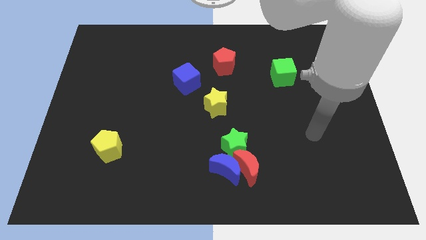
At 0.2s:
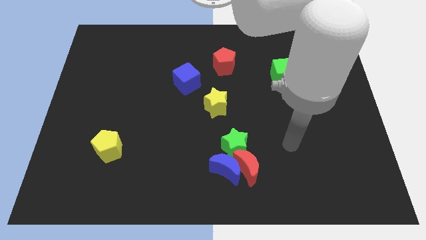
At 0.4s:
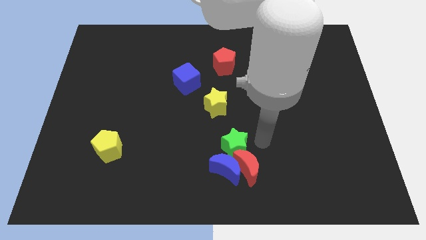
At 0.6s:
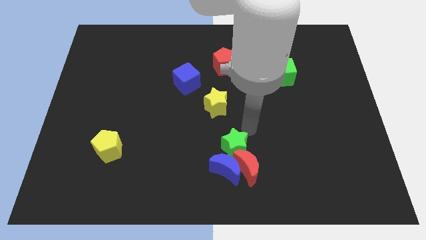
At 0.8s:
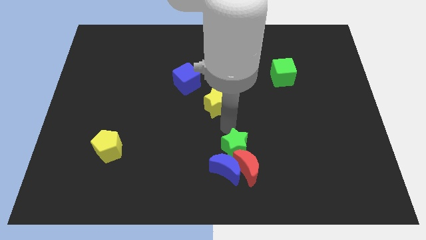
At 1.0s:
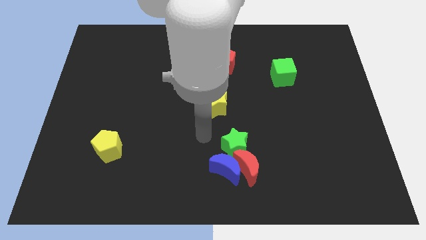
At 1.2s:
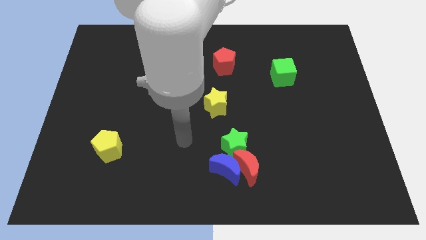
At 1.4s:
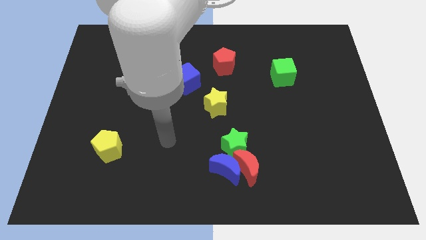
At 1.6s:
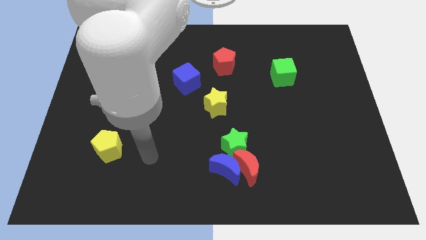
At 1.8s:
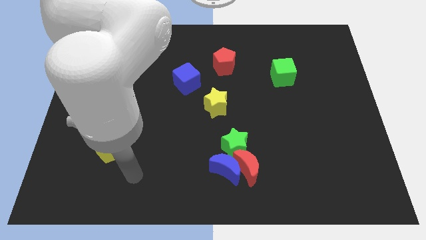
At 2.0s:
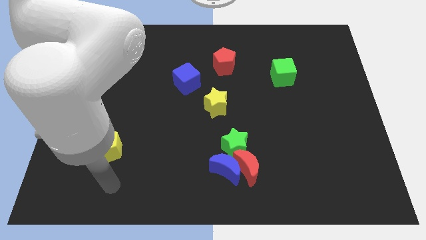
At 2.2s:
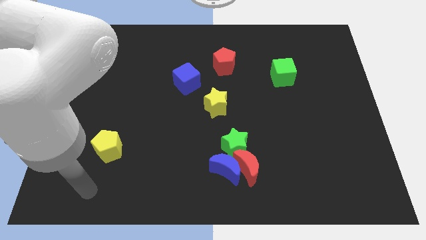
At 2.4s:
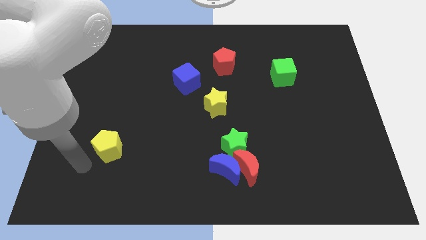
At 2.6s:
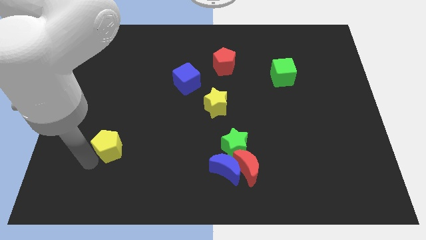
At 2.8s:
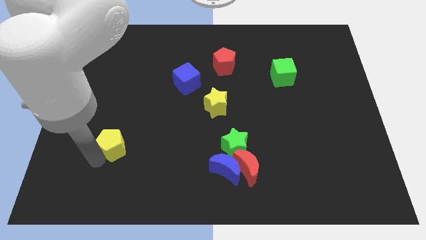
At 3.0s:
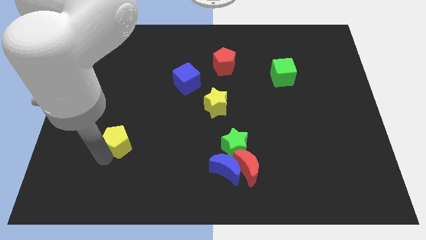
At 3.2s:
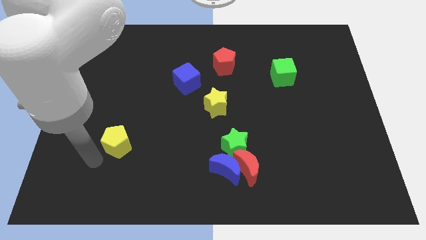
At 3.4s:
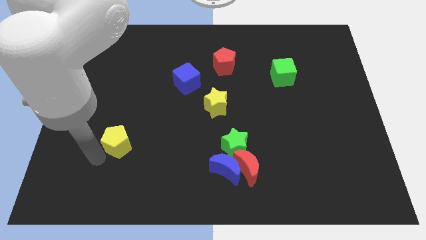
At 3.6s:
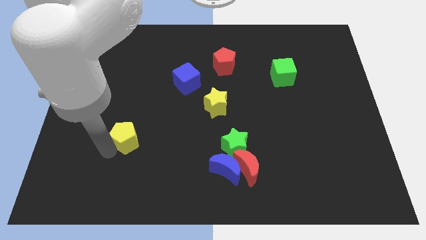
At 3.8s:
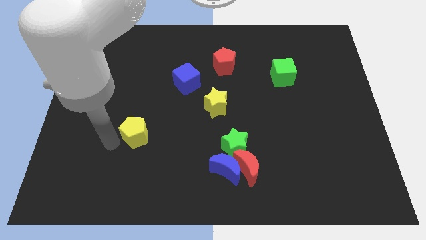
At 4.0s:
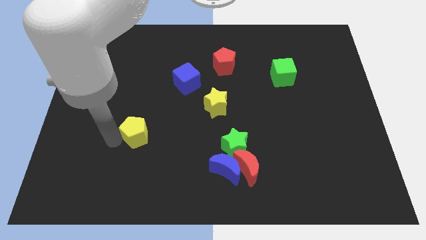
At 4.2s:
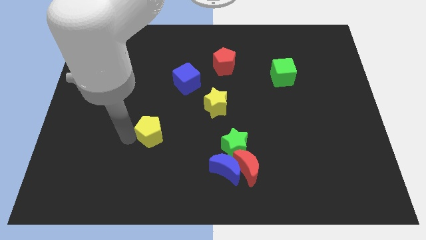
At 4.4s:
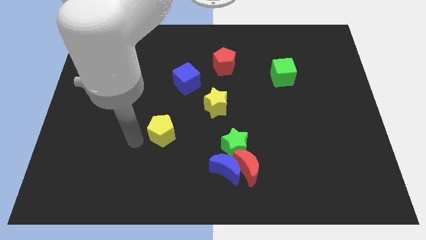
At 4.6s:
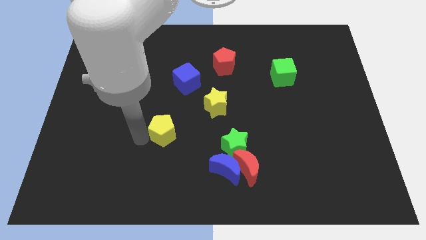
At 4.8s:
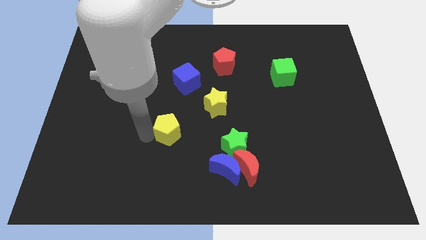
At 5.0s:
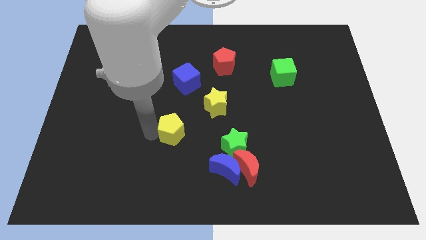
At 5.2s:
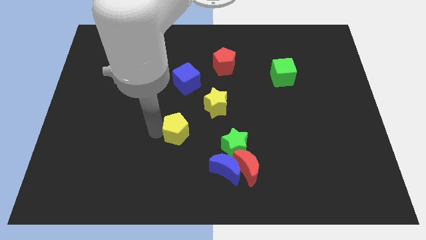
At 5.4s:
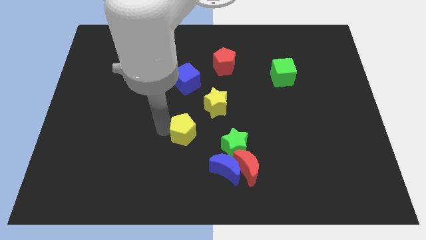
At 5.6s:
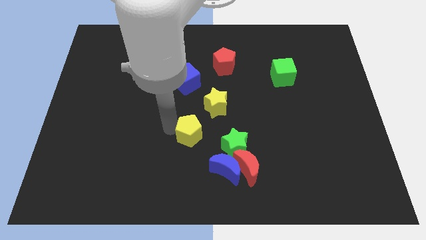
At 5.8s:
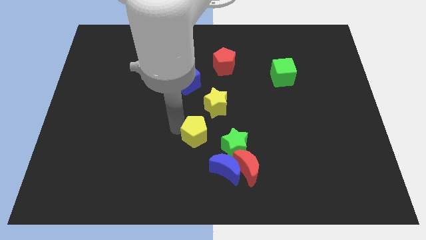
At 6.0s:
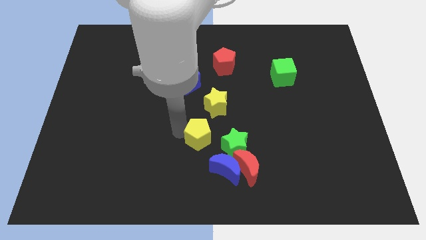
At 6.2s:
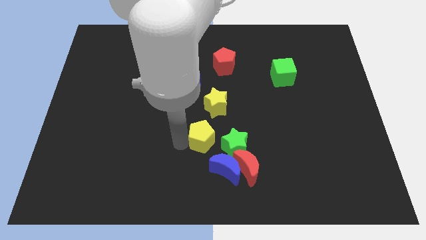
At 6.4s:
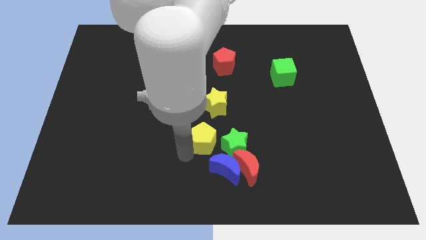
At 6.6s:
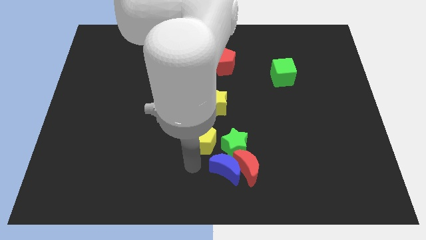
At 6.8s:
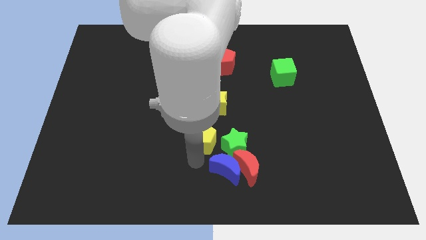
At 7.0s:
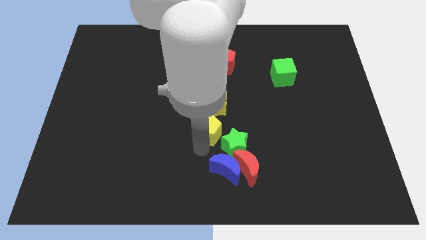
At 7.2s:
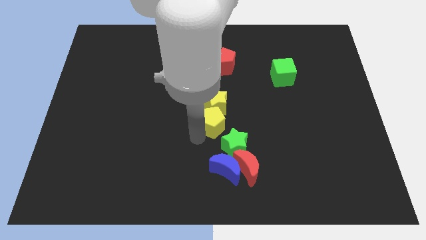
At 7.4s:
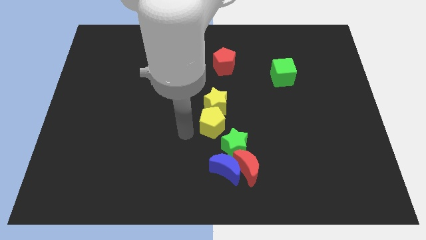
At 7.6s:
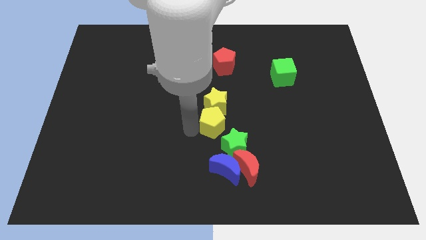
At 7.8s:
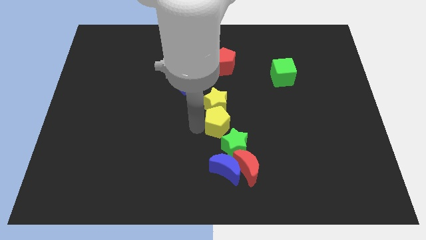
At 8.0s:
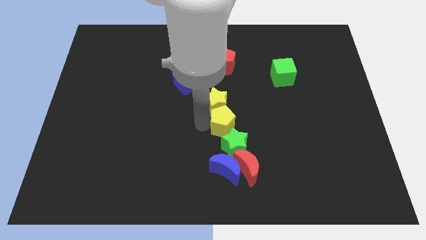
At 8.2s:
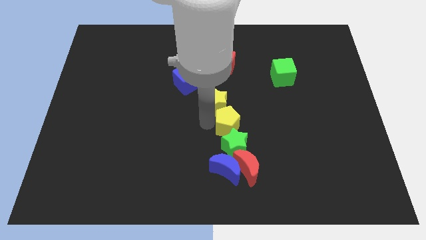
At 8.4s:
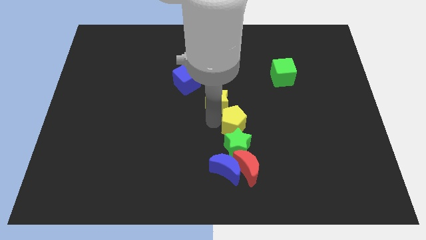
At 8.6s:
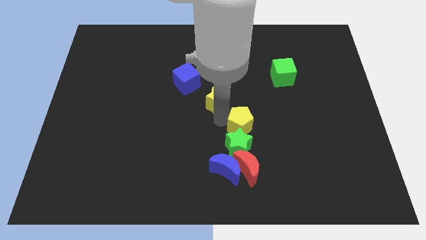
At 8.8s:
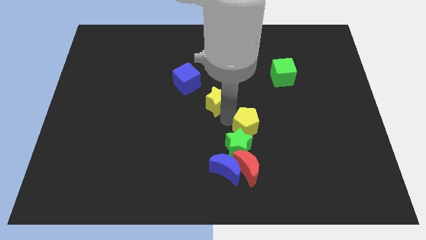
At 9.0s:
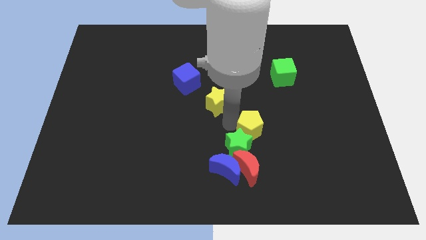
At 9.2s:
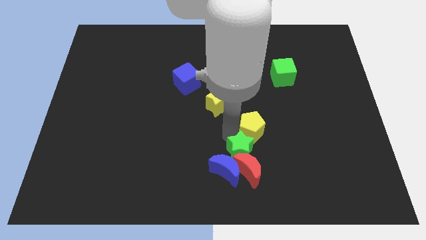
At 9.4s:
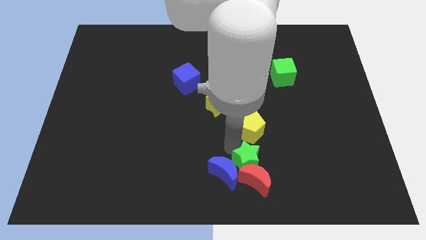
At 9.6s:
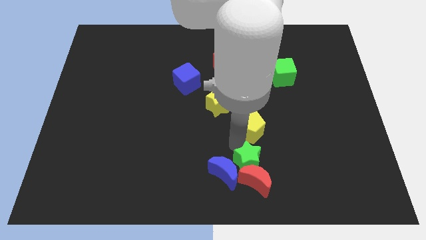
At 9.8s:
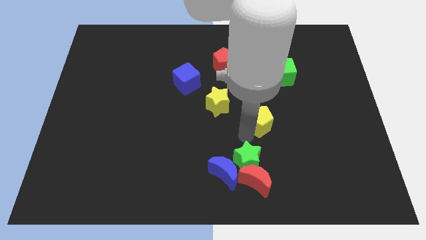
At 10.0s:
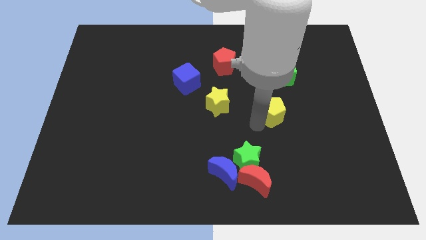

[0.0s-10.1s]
put the yellow pentagon to the bottom of the green cube

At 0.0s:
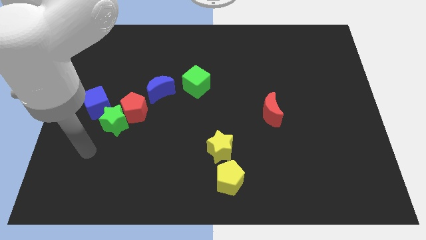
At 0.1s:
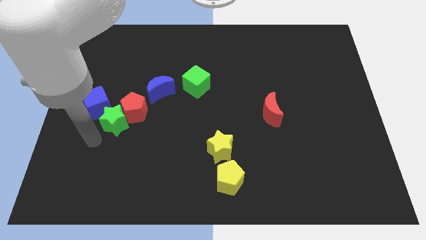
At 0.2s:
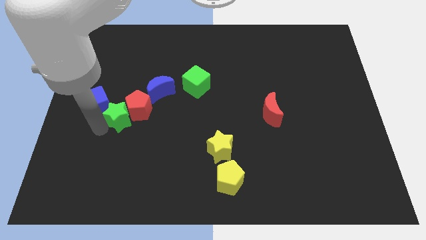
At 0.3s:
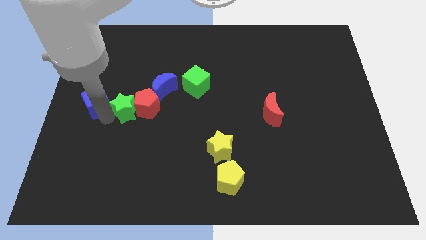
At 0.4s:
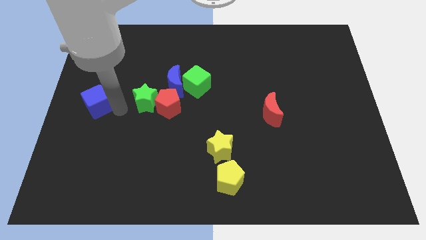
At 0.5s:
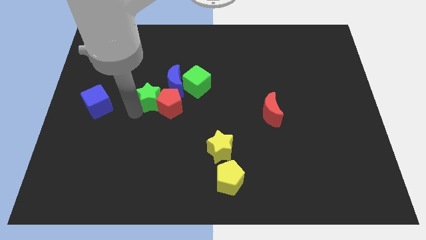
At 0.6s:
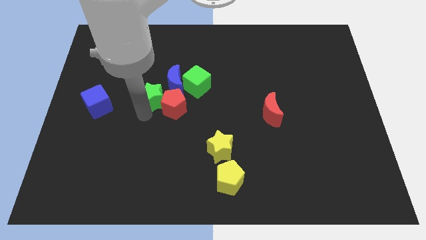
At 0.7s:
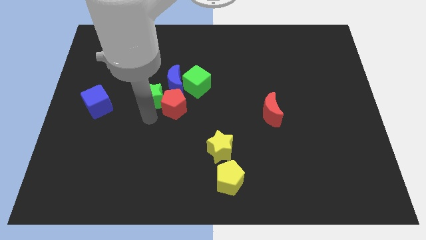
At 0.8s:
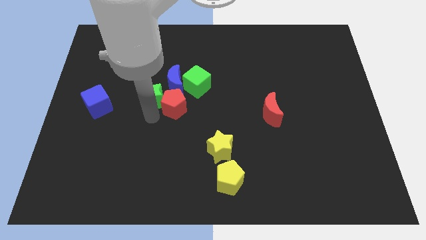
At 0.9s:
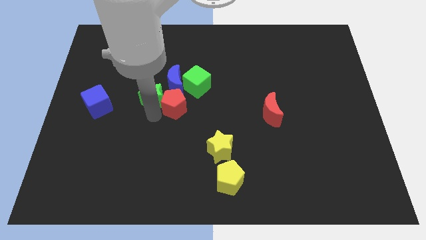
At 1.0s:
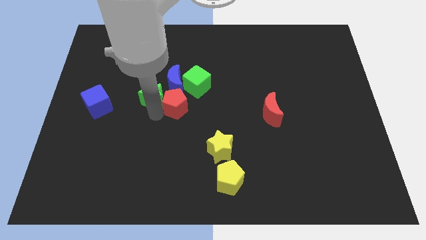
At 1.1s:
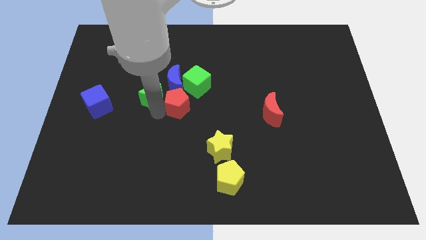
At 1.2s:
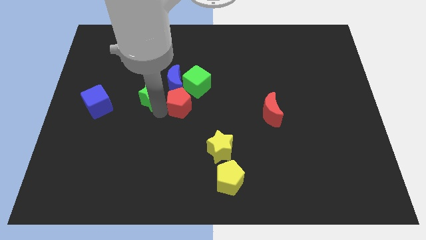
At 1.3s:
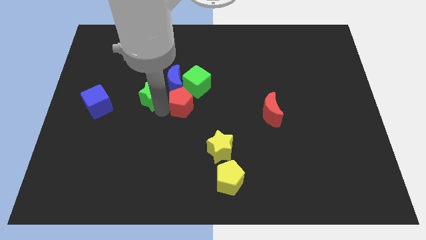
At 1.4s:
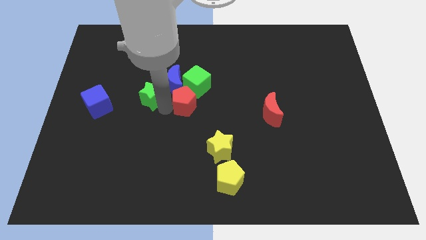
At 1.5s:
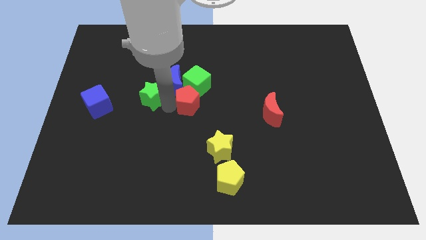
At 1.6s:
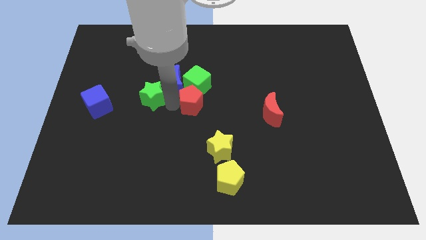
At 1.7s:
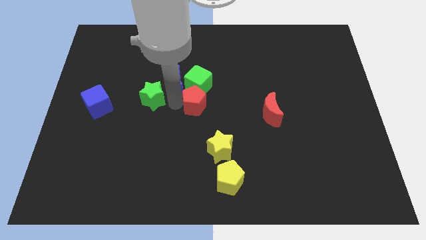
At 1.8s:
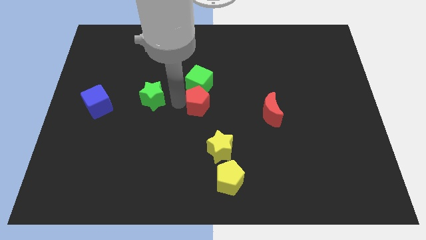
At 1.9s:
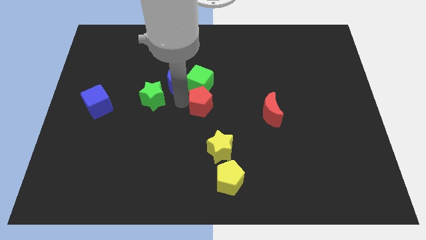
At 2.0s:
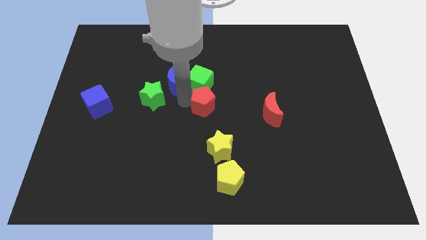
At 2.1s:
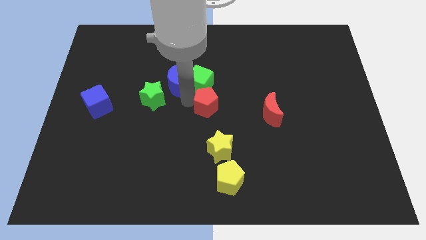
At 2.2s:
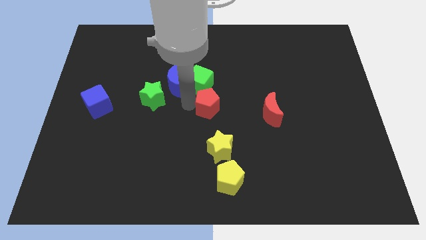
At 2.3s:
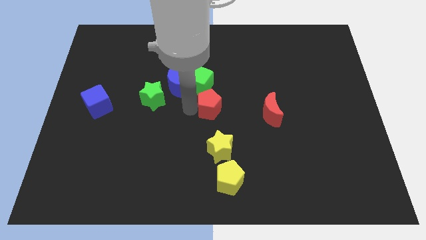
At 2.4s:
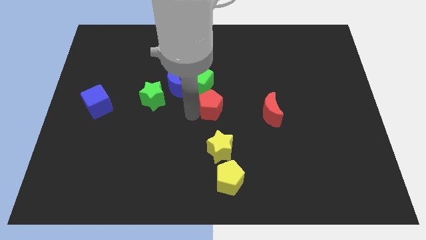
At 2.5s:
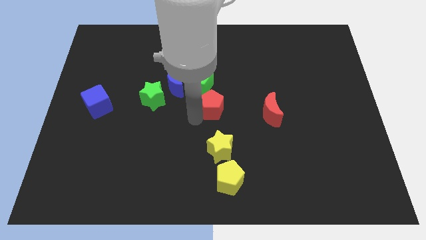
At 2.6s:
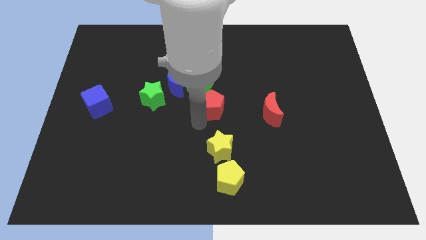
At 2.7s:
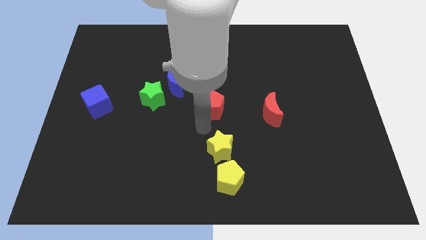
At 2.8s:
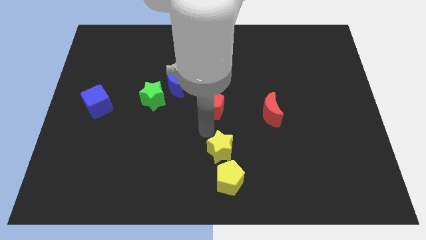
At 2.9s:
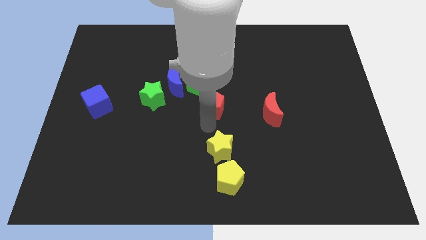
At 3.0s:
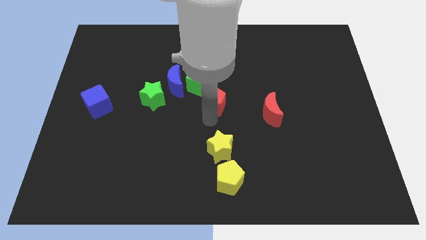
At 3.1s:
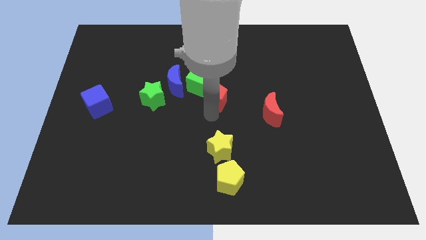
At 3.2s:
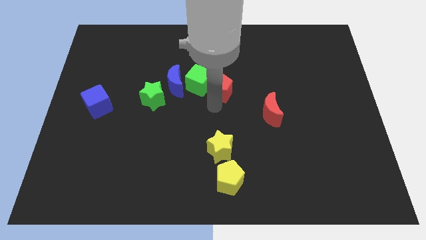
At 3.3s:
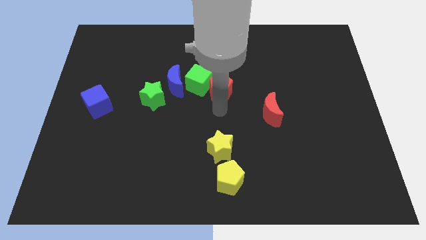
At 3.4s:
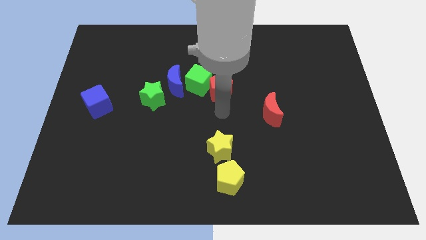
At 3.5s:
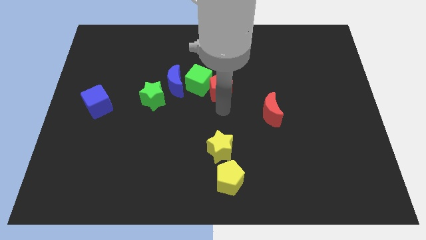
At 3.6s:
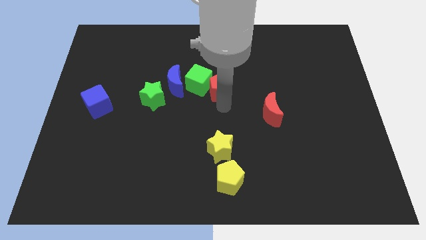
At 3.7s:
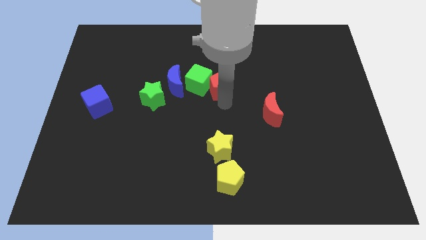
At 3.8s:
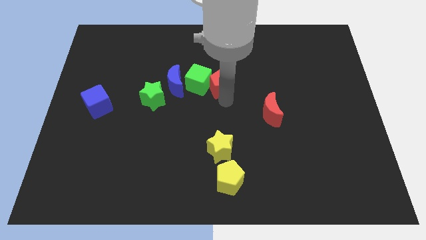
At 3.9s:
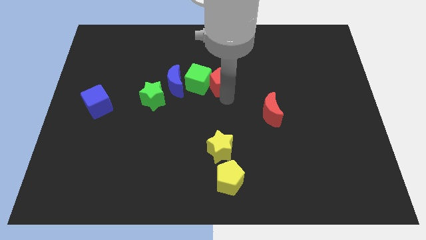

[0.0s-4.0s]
push the red pentagon diagonally up and to the right of the green cube
